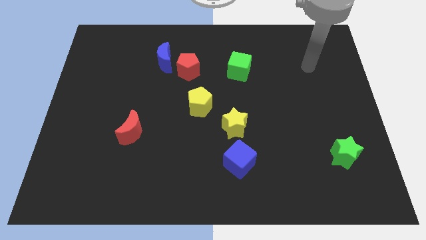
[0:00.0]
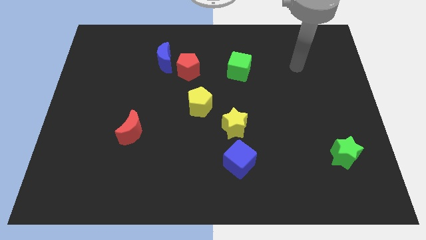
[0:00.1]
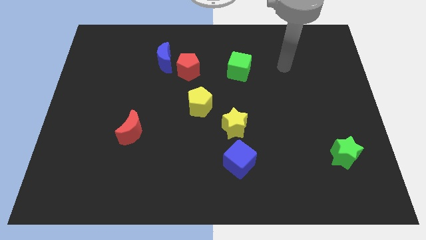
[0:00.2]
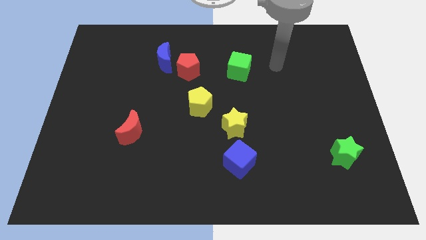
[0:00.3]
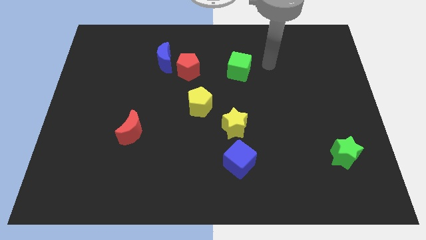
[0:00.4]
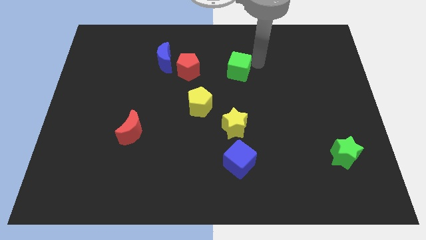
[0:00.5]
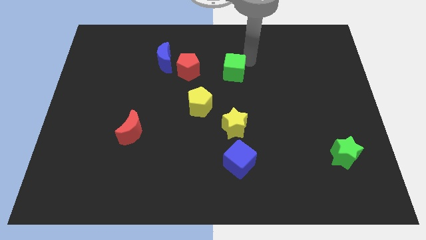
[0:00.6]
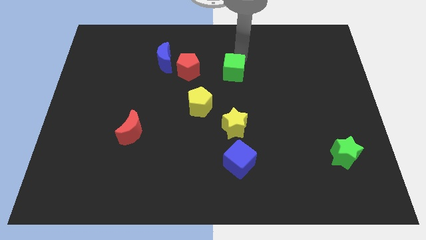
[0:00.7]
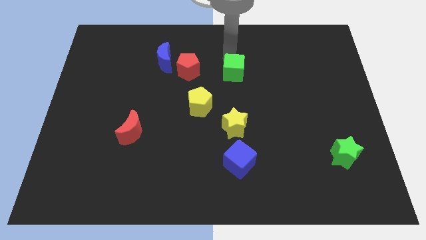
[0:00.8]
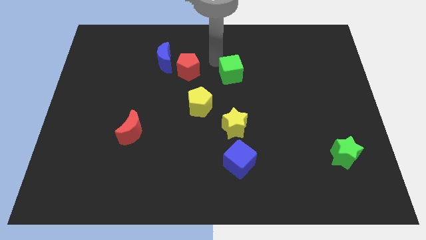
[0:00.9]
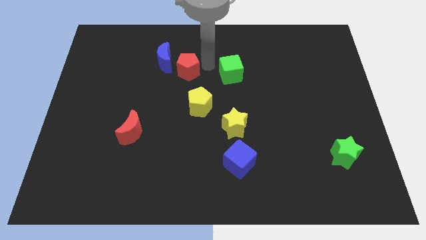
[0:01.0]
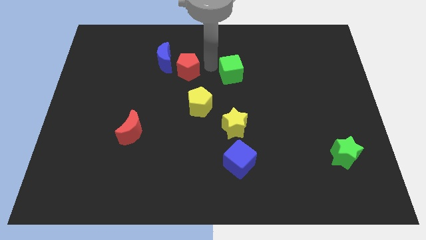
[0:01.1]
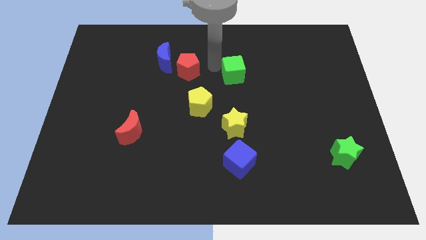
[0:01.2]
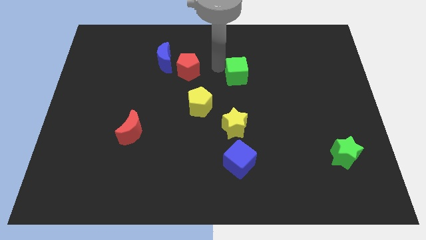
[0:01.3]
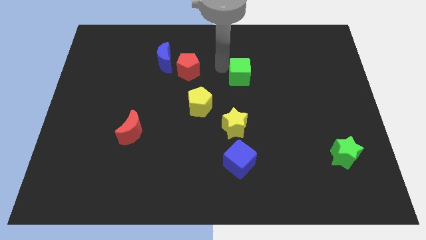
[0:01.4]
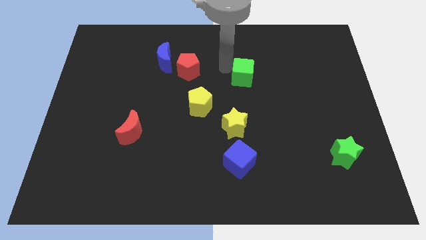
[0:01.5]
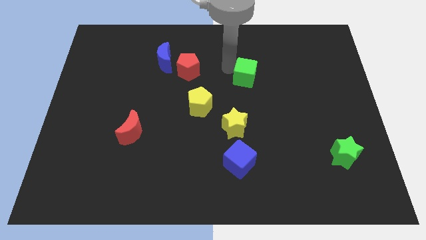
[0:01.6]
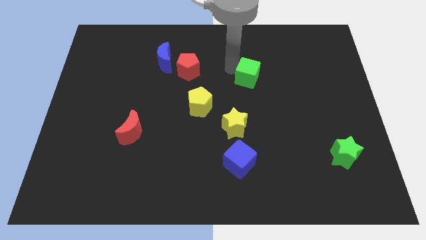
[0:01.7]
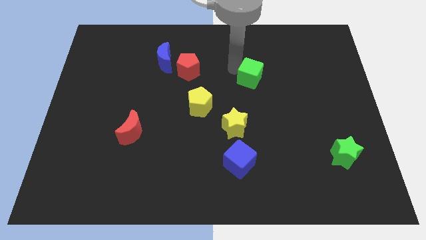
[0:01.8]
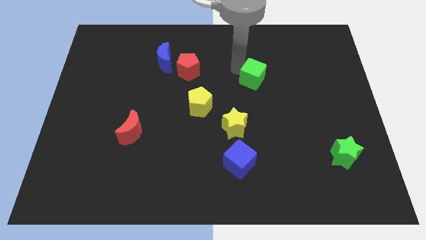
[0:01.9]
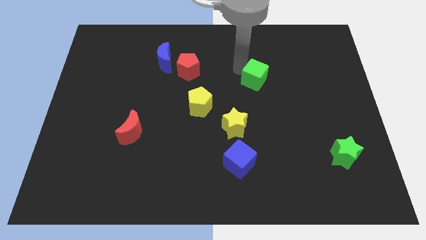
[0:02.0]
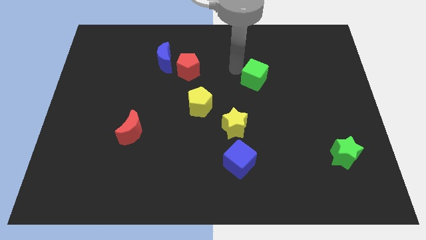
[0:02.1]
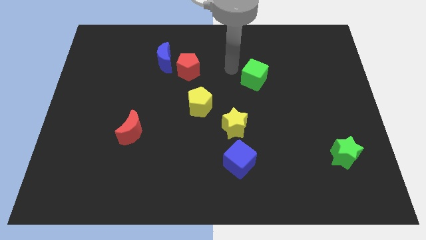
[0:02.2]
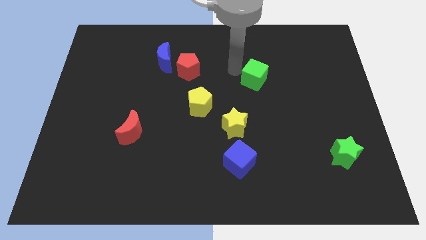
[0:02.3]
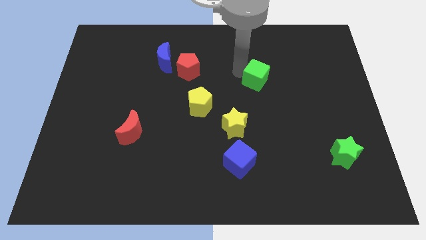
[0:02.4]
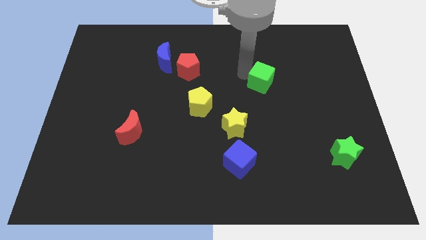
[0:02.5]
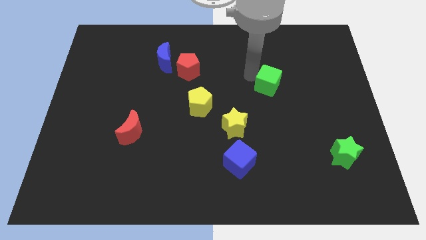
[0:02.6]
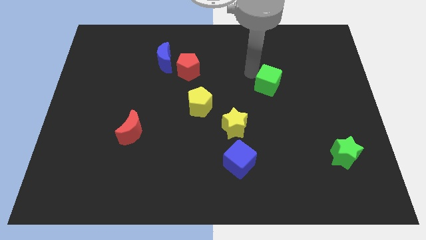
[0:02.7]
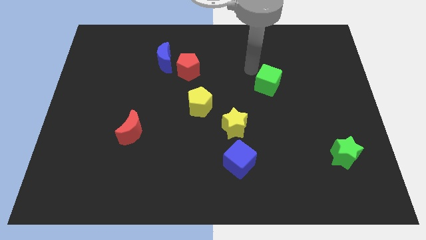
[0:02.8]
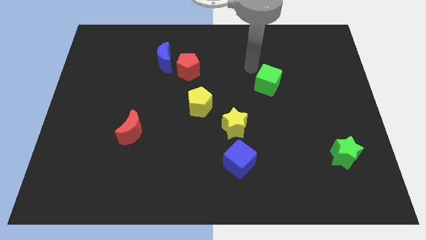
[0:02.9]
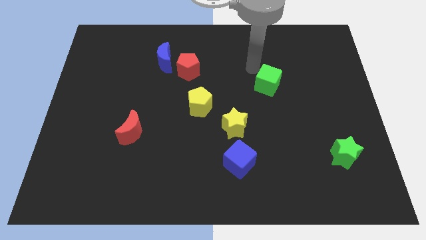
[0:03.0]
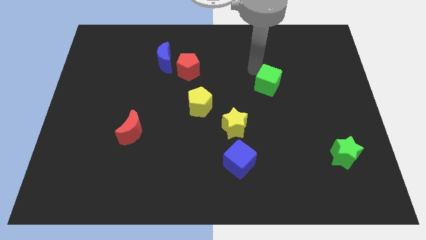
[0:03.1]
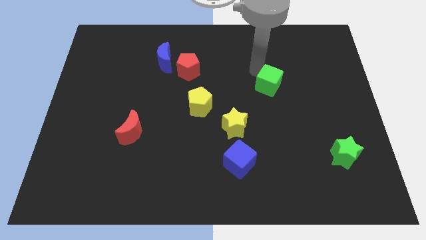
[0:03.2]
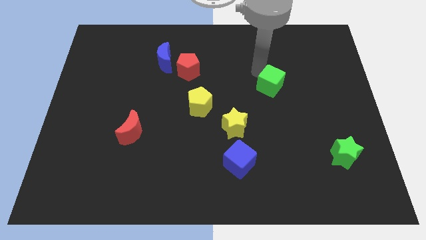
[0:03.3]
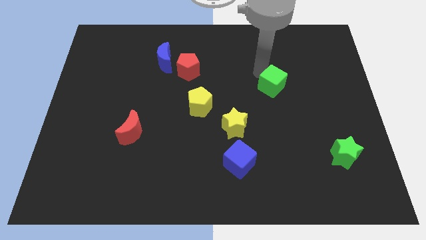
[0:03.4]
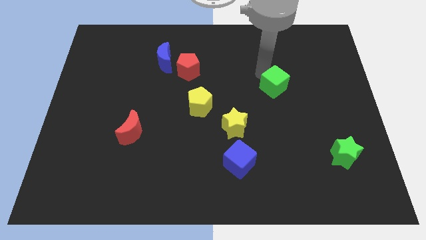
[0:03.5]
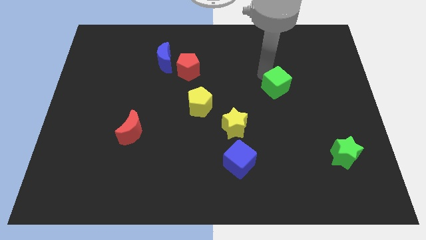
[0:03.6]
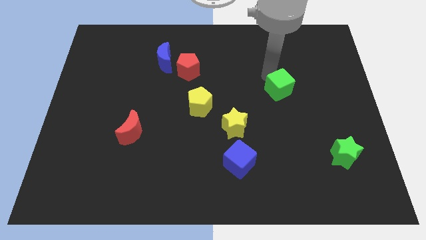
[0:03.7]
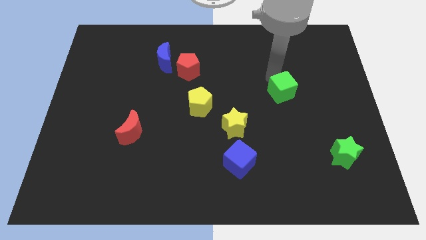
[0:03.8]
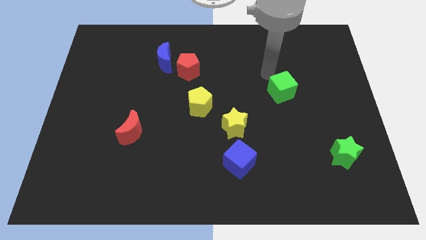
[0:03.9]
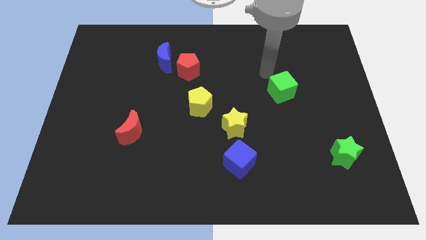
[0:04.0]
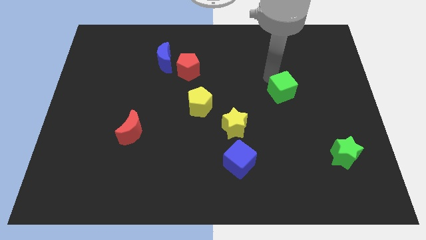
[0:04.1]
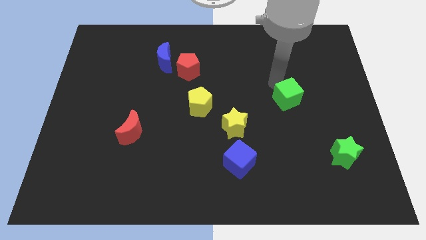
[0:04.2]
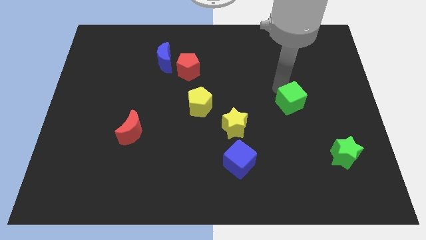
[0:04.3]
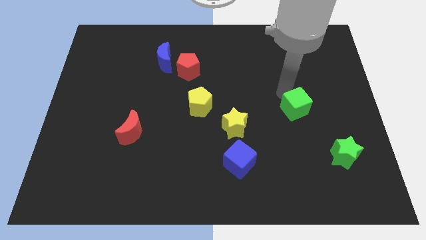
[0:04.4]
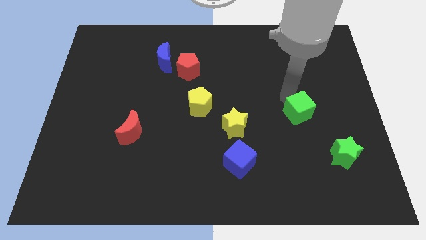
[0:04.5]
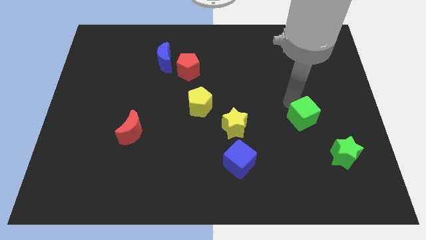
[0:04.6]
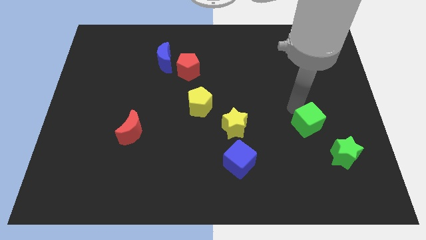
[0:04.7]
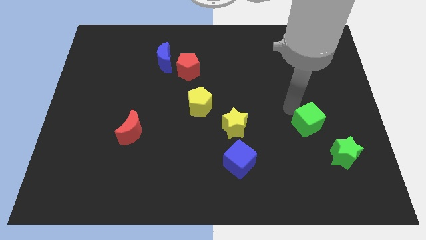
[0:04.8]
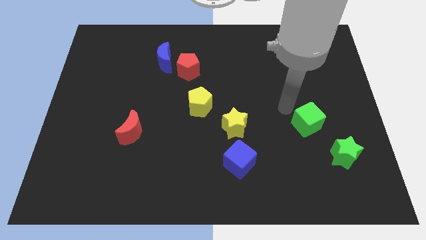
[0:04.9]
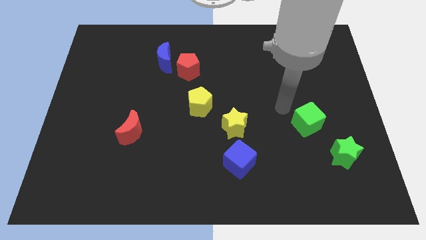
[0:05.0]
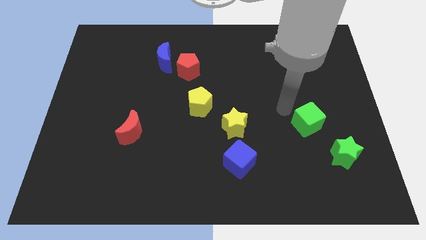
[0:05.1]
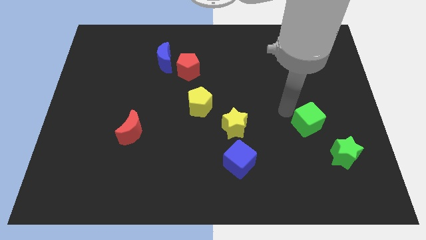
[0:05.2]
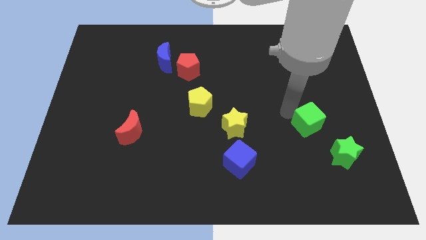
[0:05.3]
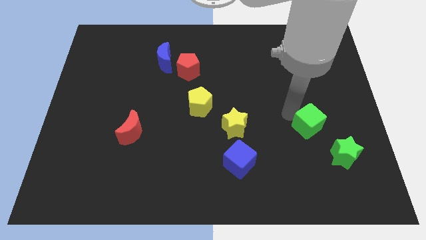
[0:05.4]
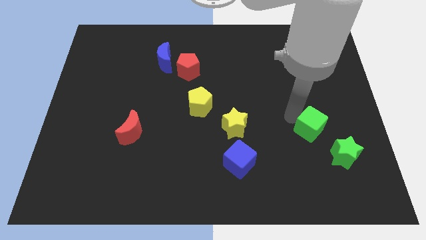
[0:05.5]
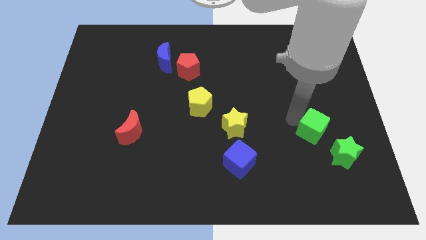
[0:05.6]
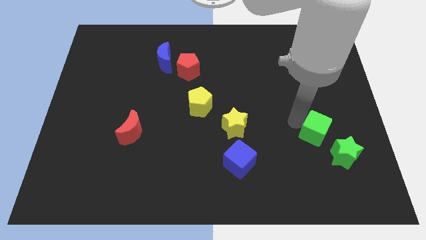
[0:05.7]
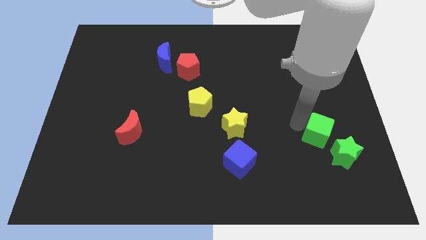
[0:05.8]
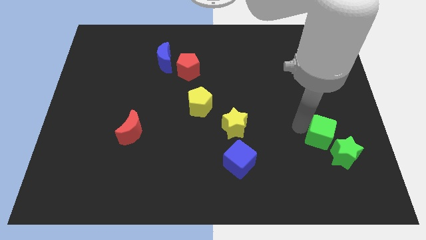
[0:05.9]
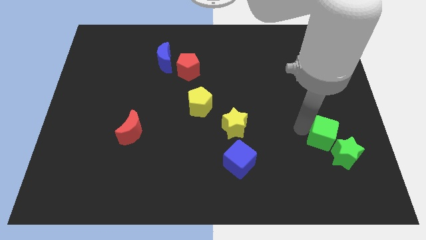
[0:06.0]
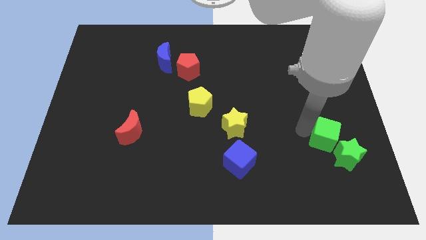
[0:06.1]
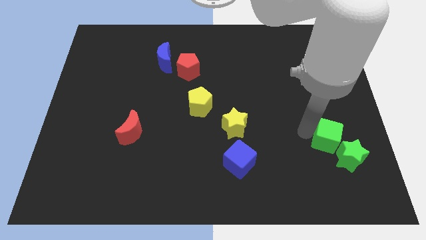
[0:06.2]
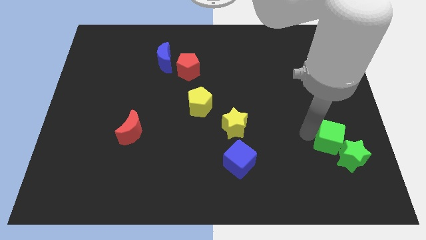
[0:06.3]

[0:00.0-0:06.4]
push the green cube next to the green star
